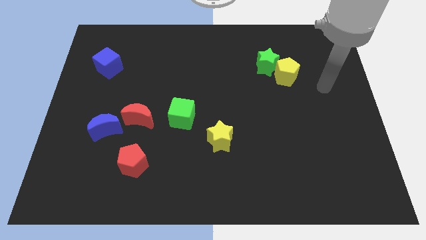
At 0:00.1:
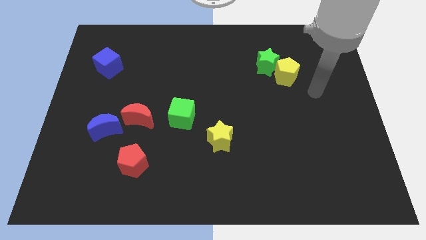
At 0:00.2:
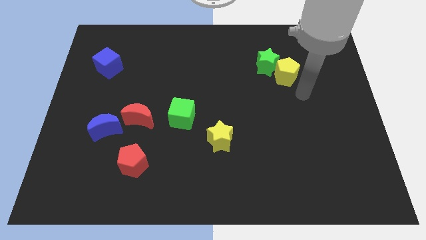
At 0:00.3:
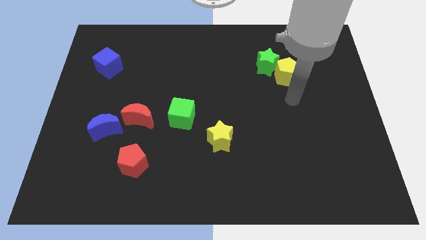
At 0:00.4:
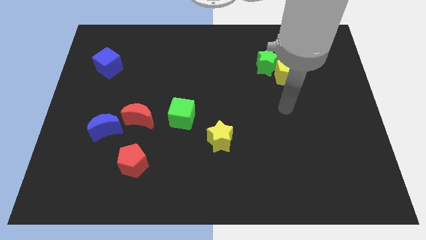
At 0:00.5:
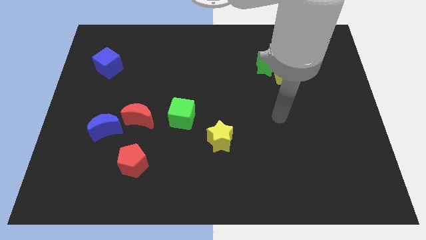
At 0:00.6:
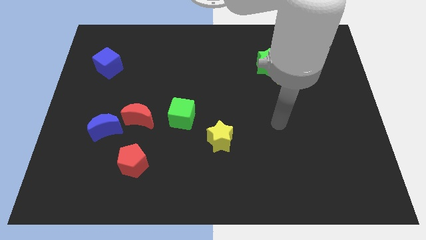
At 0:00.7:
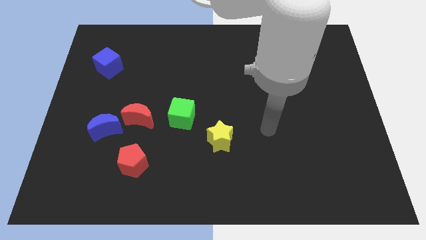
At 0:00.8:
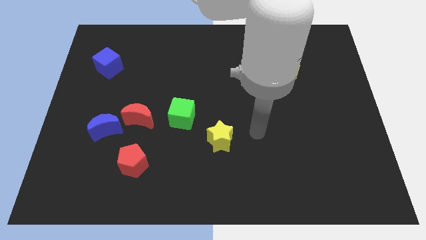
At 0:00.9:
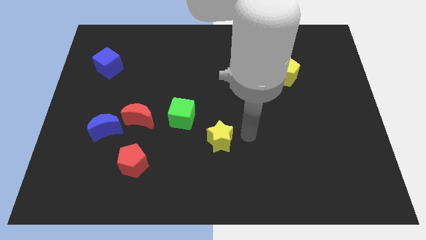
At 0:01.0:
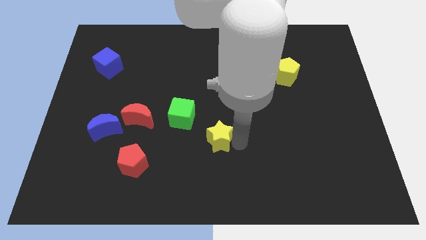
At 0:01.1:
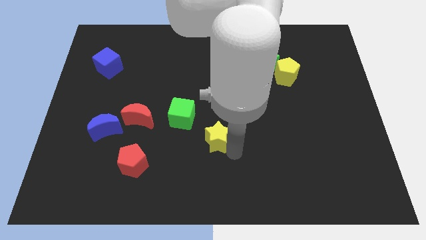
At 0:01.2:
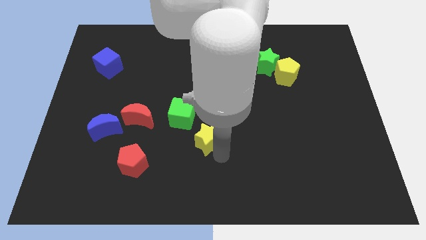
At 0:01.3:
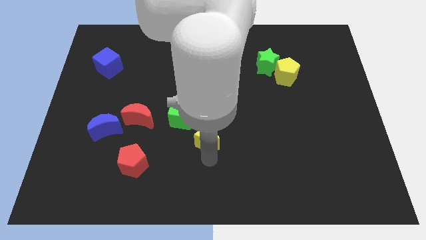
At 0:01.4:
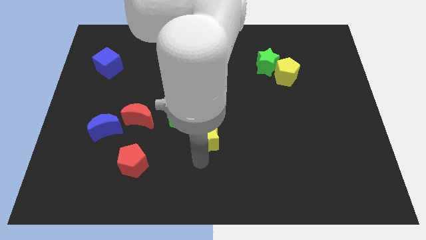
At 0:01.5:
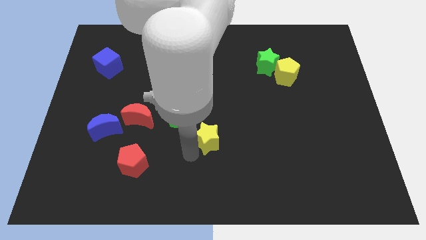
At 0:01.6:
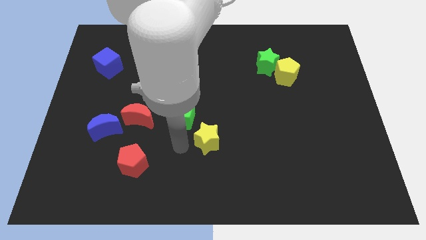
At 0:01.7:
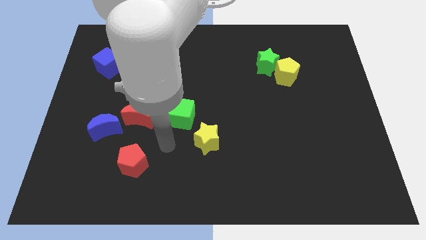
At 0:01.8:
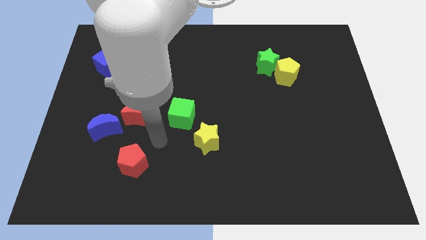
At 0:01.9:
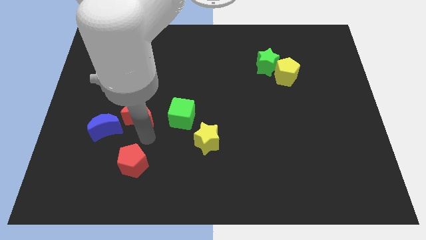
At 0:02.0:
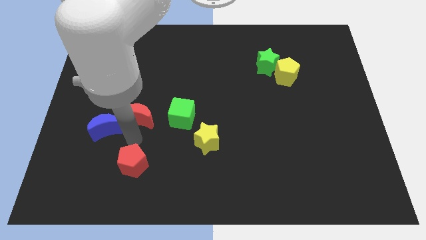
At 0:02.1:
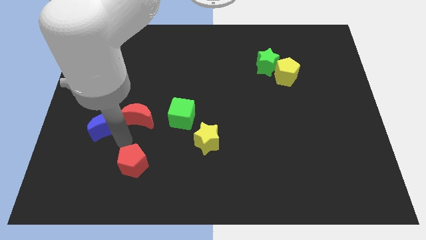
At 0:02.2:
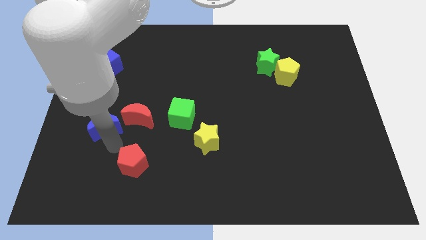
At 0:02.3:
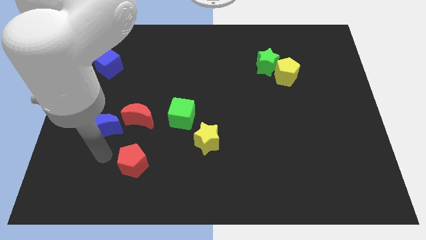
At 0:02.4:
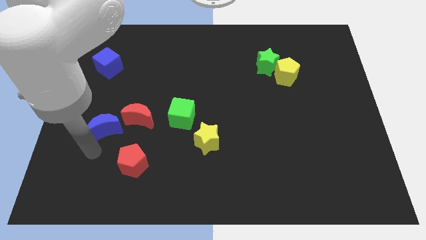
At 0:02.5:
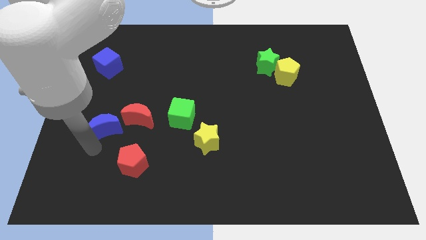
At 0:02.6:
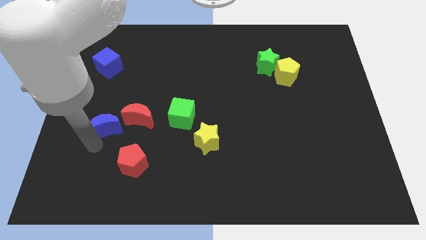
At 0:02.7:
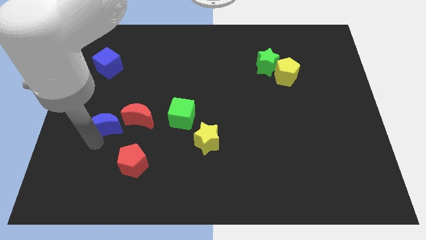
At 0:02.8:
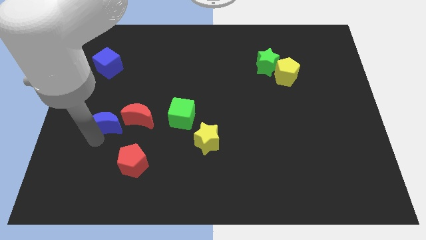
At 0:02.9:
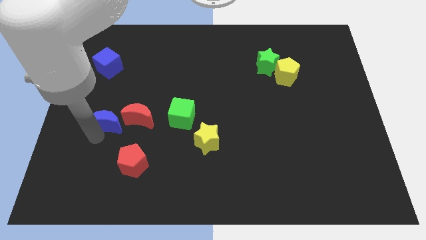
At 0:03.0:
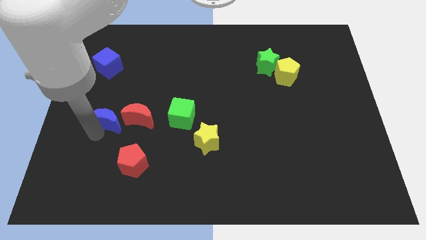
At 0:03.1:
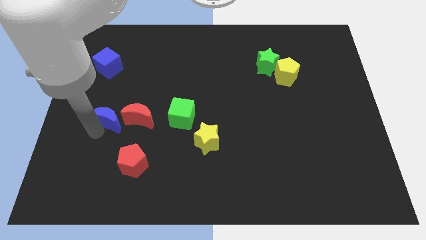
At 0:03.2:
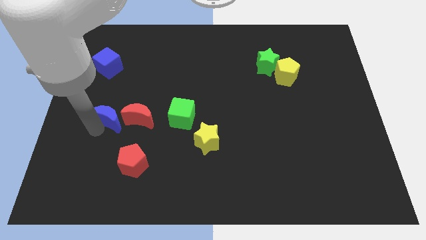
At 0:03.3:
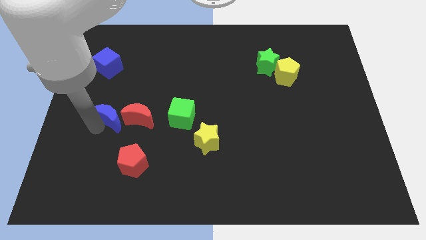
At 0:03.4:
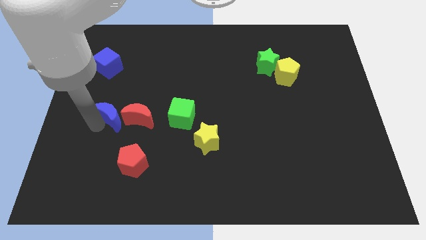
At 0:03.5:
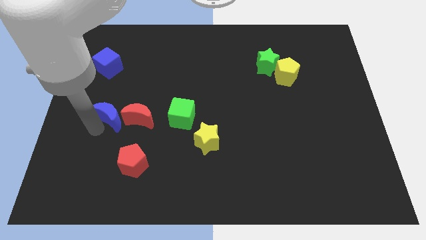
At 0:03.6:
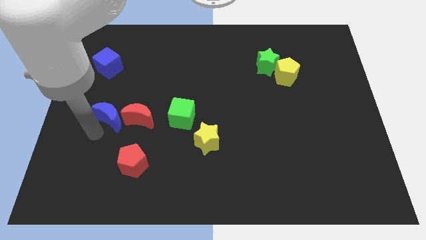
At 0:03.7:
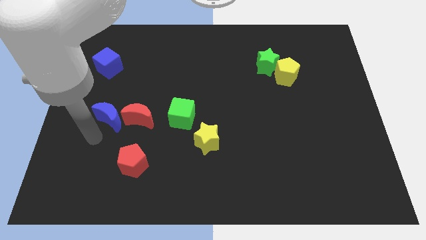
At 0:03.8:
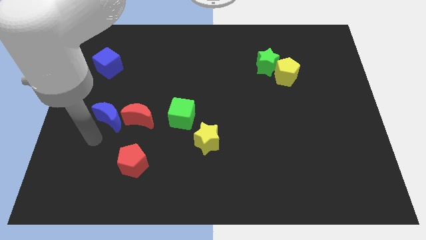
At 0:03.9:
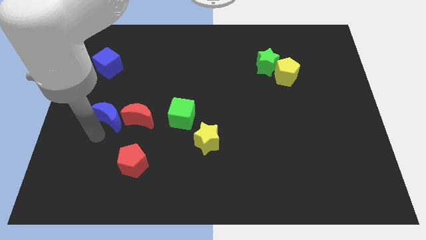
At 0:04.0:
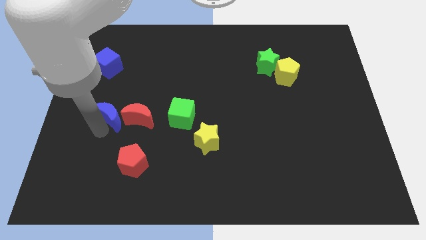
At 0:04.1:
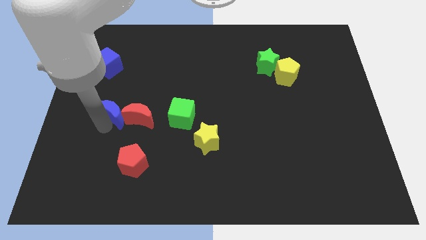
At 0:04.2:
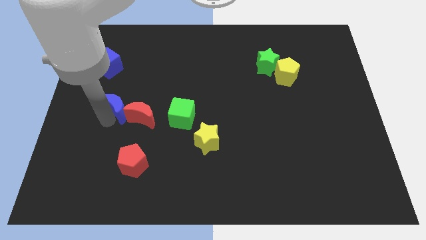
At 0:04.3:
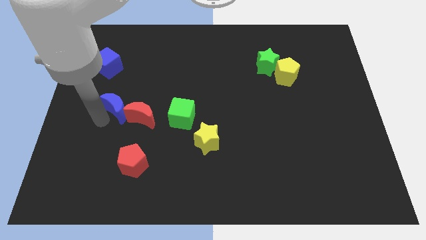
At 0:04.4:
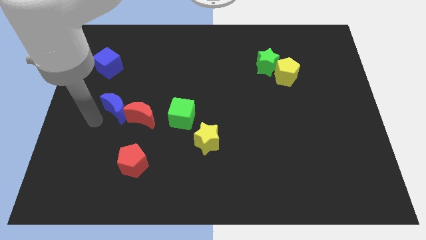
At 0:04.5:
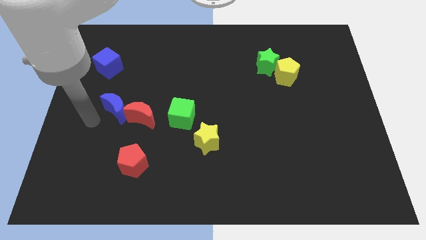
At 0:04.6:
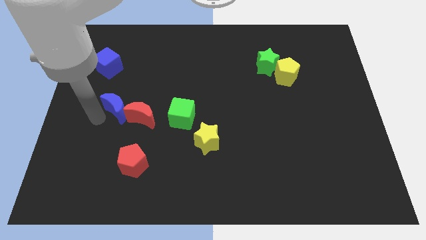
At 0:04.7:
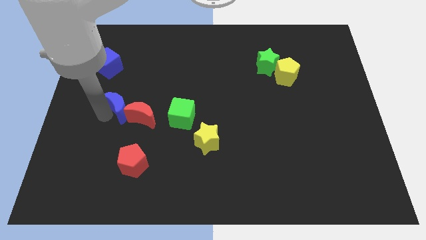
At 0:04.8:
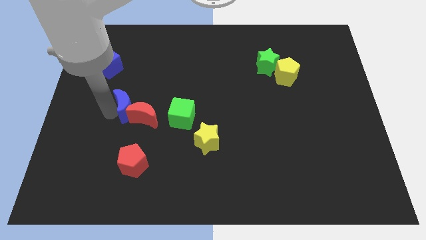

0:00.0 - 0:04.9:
push the blue moon a little diagonally up and right

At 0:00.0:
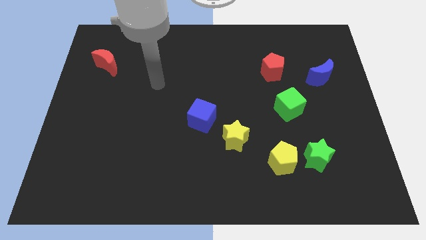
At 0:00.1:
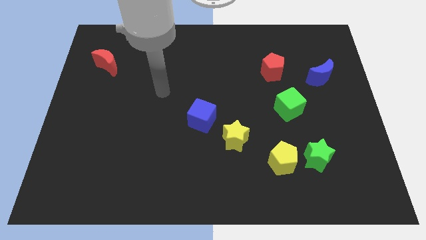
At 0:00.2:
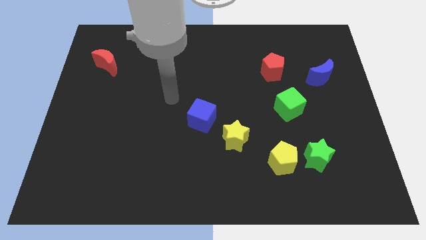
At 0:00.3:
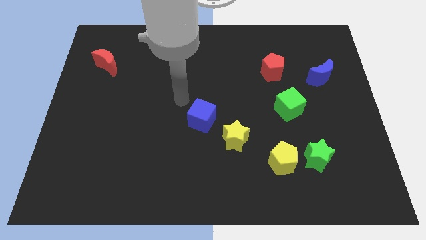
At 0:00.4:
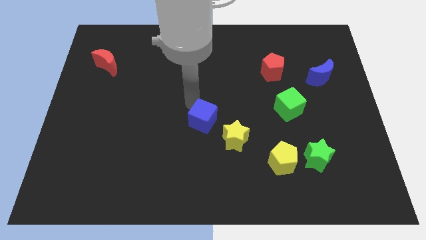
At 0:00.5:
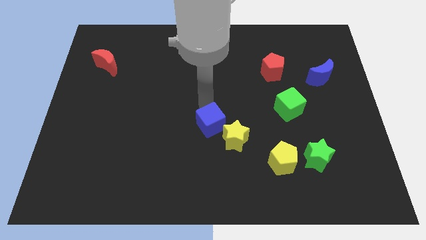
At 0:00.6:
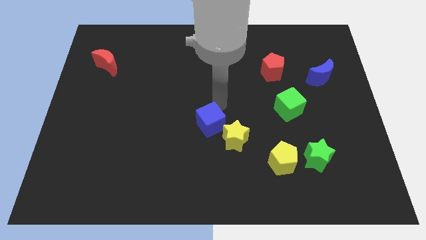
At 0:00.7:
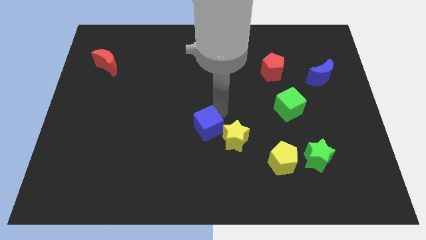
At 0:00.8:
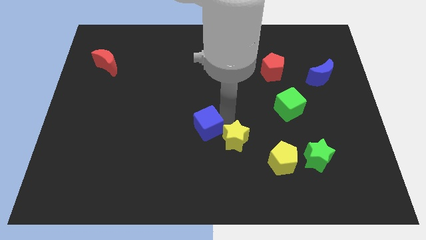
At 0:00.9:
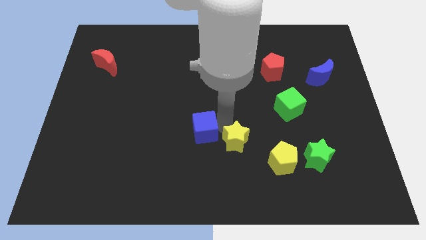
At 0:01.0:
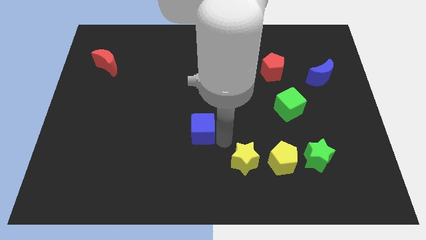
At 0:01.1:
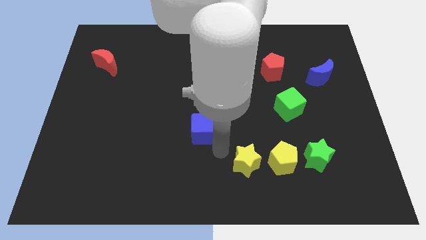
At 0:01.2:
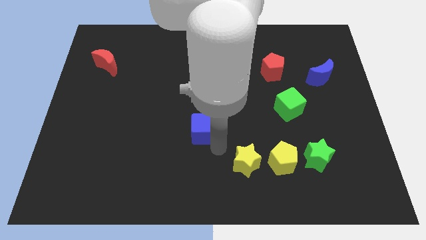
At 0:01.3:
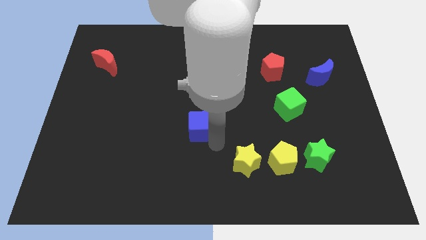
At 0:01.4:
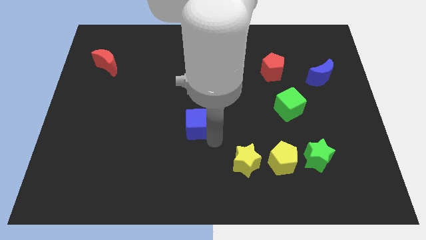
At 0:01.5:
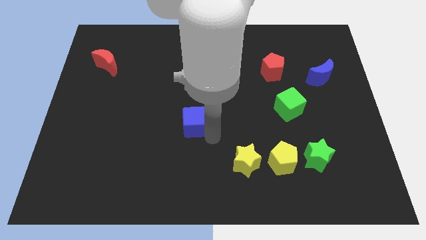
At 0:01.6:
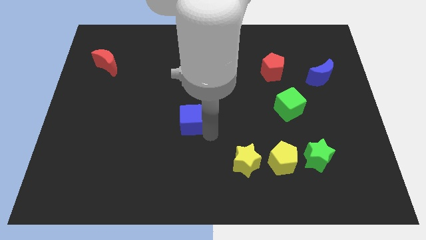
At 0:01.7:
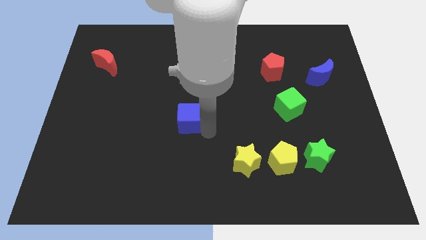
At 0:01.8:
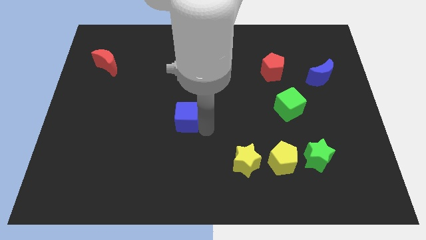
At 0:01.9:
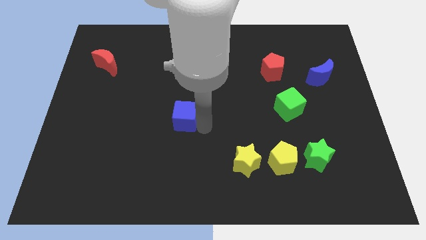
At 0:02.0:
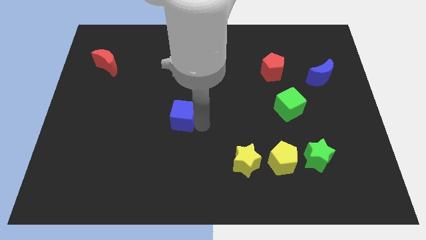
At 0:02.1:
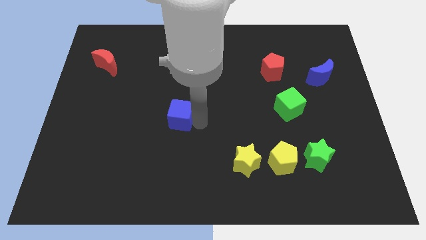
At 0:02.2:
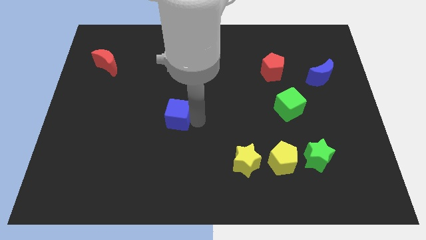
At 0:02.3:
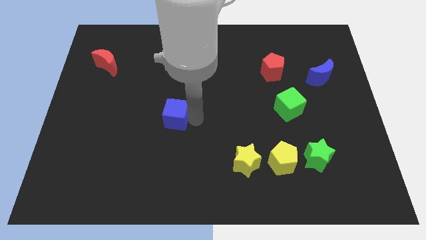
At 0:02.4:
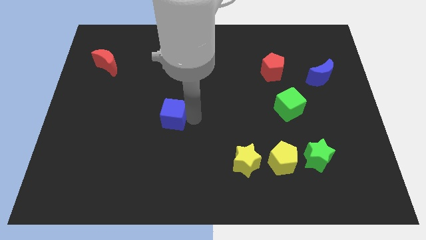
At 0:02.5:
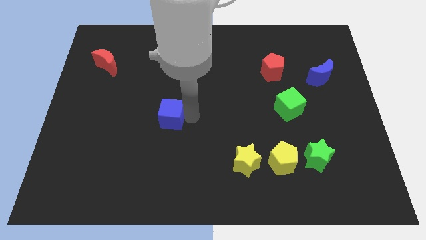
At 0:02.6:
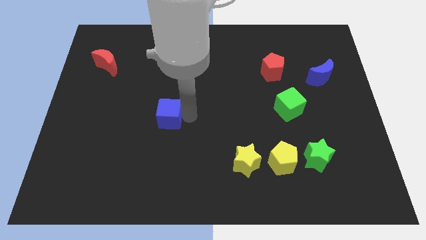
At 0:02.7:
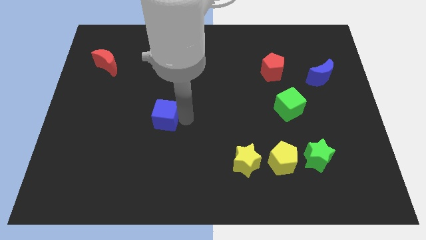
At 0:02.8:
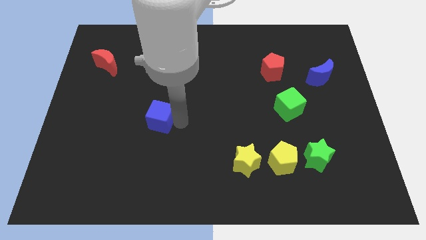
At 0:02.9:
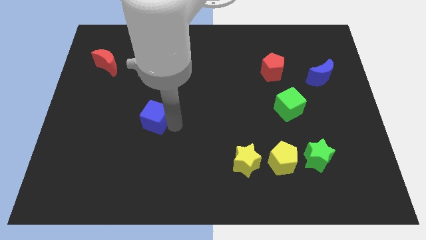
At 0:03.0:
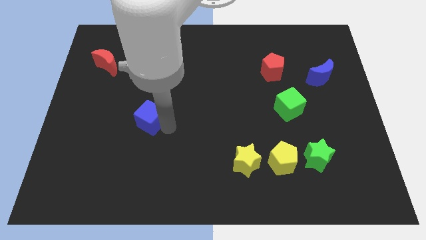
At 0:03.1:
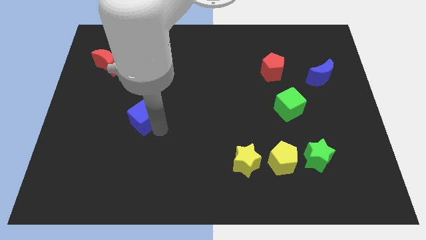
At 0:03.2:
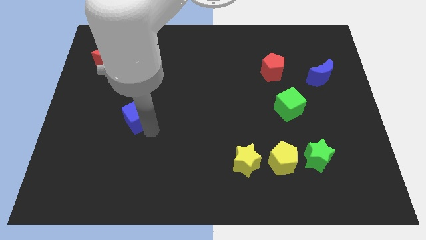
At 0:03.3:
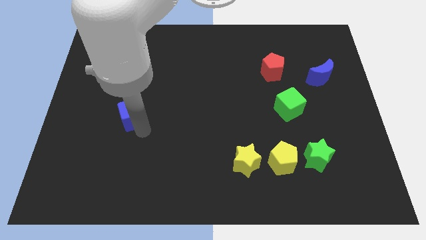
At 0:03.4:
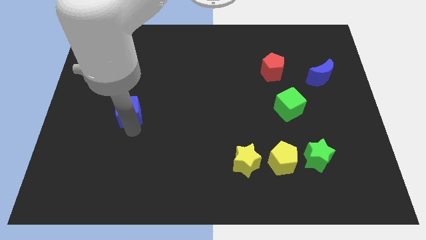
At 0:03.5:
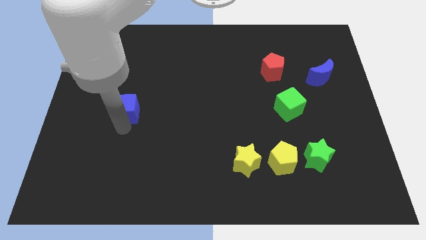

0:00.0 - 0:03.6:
move the blue cube slightly up and to the left
